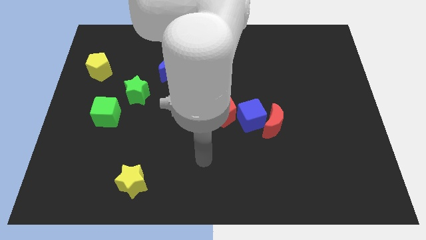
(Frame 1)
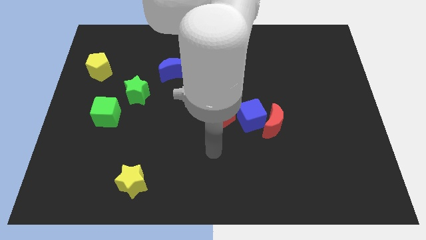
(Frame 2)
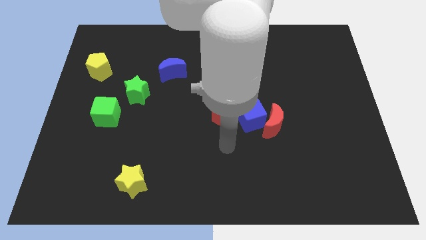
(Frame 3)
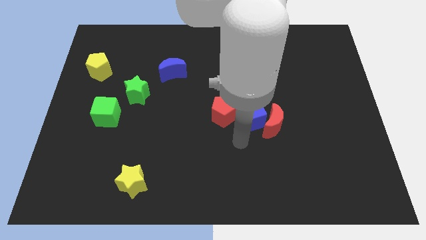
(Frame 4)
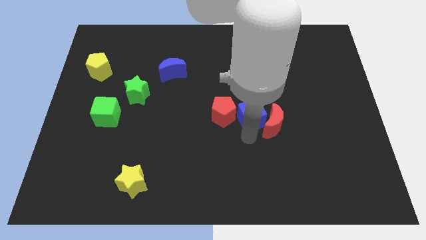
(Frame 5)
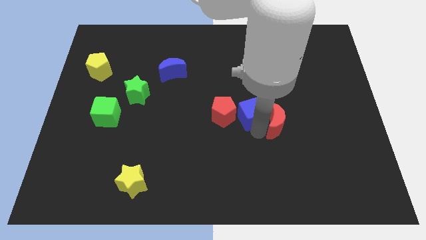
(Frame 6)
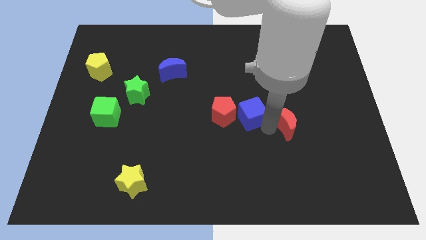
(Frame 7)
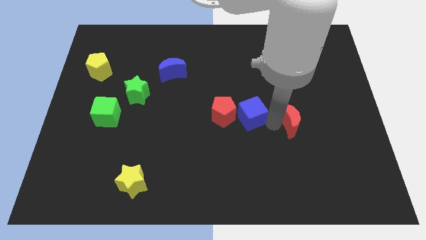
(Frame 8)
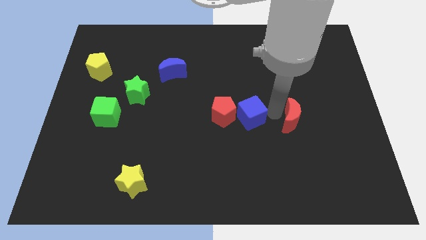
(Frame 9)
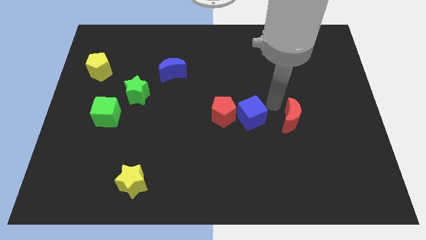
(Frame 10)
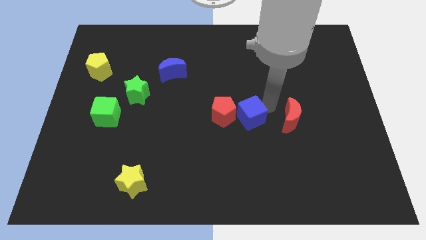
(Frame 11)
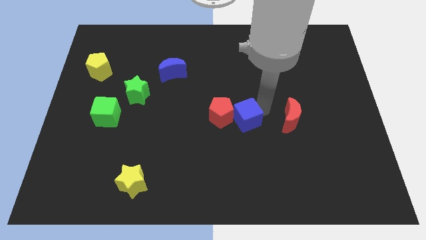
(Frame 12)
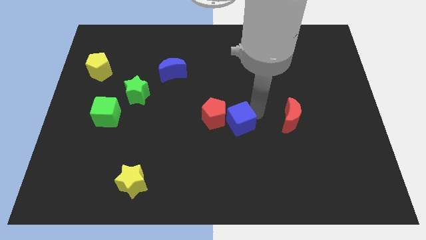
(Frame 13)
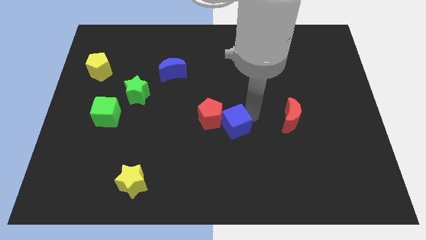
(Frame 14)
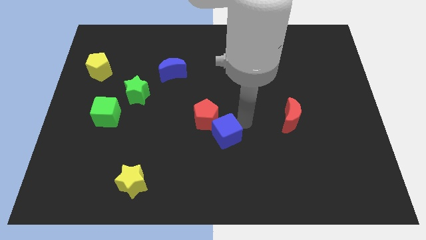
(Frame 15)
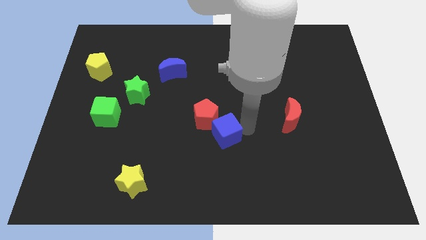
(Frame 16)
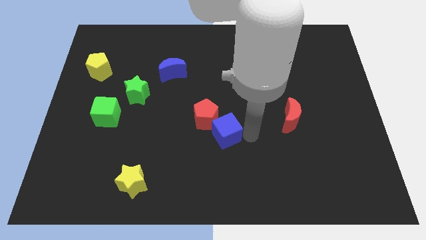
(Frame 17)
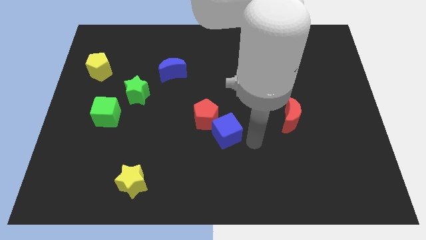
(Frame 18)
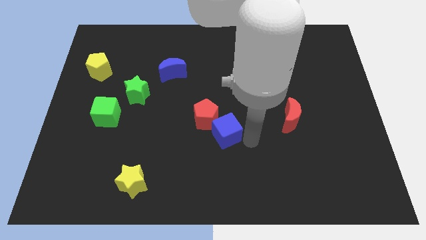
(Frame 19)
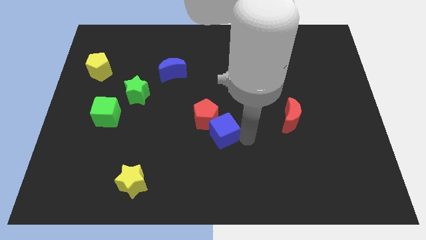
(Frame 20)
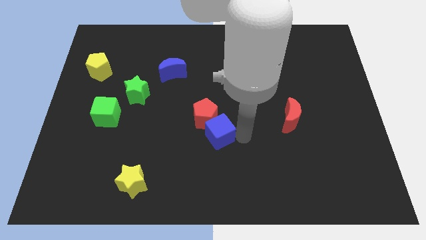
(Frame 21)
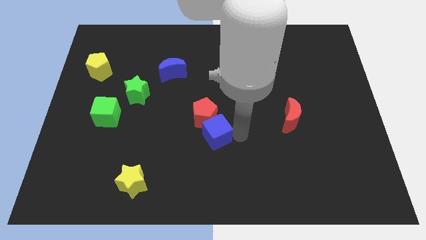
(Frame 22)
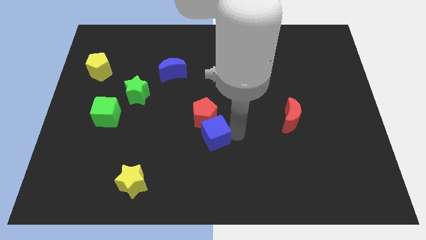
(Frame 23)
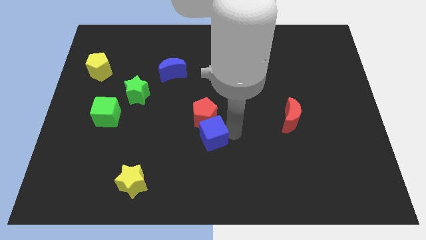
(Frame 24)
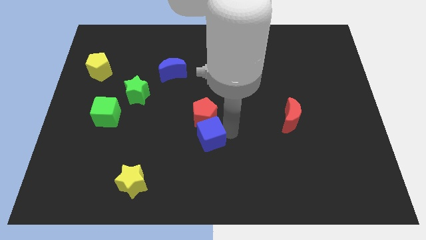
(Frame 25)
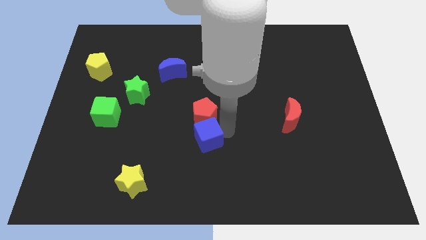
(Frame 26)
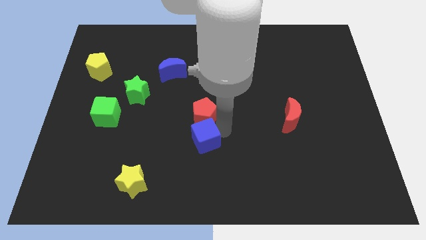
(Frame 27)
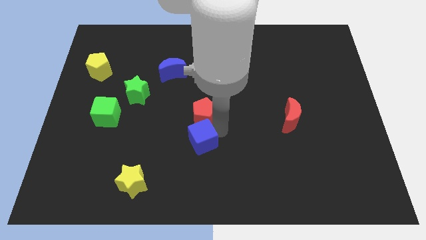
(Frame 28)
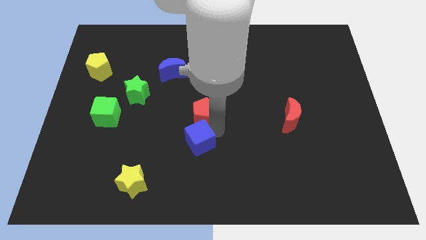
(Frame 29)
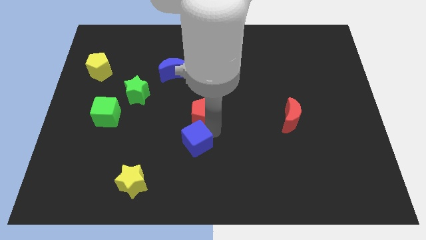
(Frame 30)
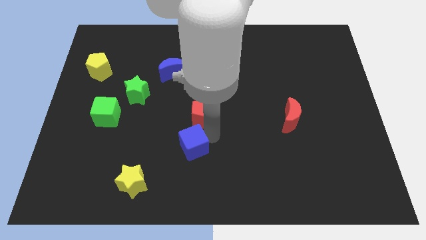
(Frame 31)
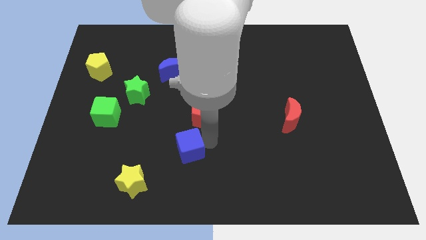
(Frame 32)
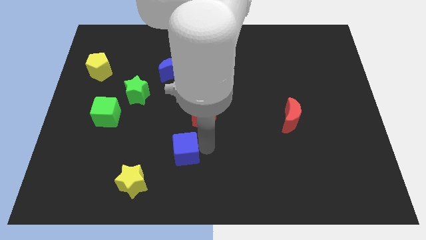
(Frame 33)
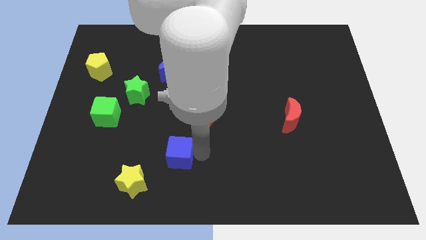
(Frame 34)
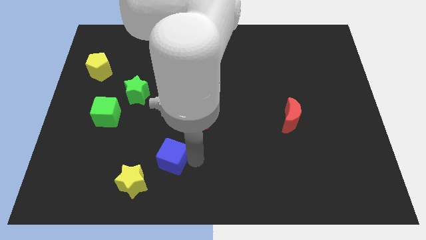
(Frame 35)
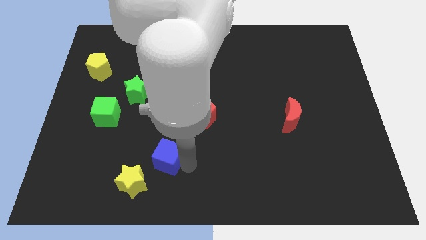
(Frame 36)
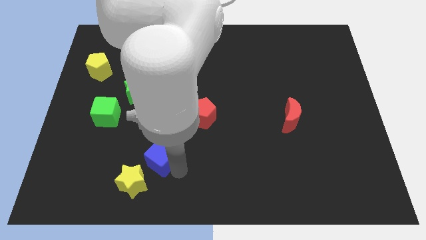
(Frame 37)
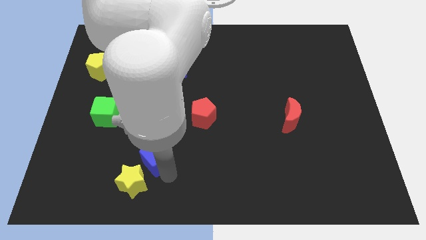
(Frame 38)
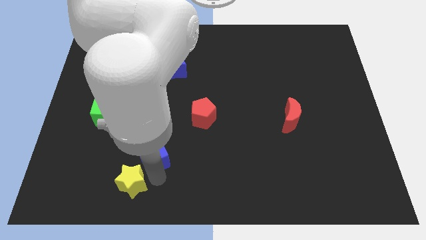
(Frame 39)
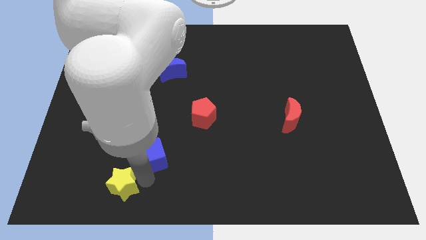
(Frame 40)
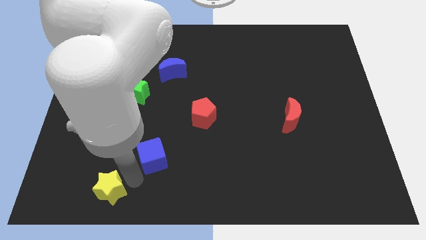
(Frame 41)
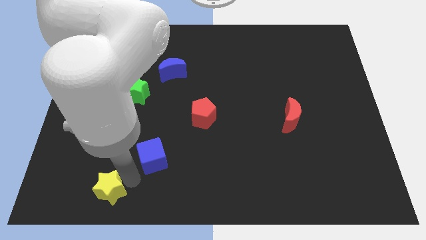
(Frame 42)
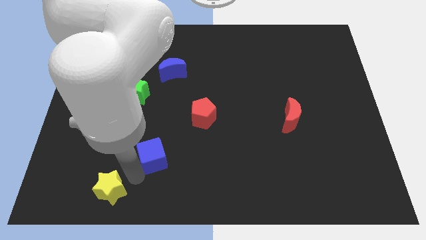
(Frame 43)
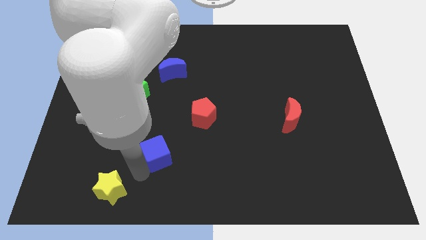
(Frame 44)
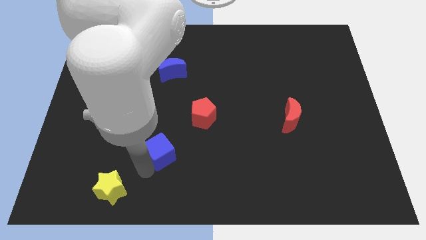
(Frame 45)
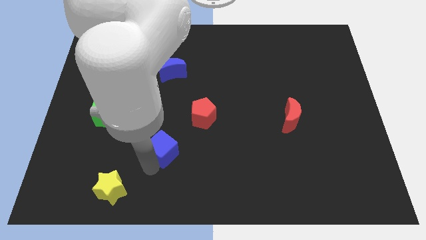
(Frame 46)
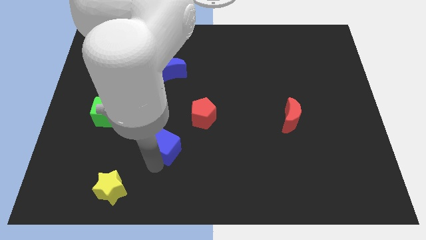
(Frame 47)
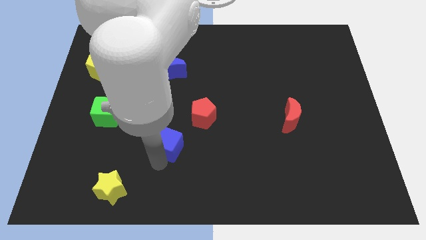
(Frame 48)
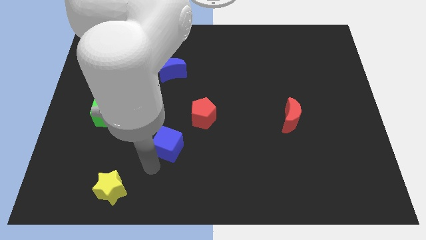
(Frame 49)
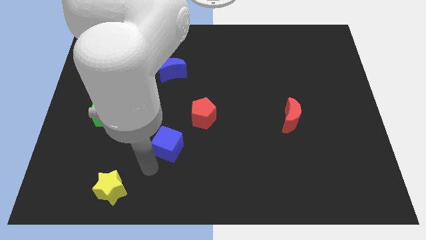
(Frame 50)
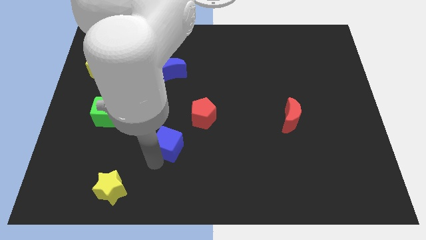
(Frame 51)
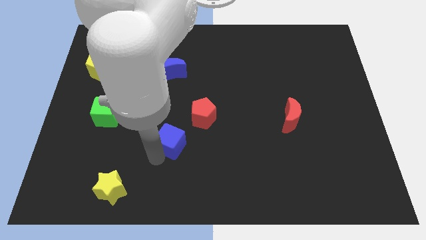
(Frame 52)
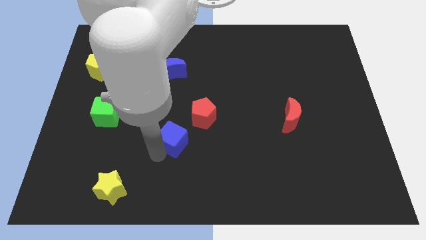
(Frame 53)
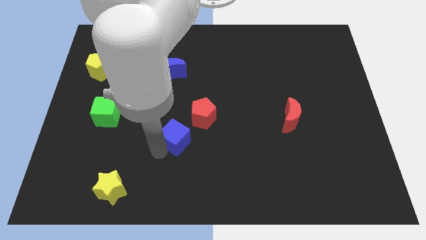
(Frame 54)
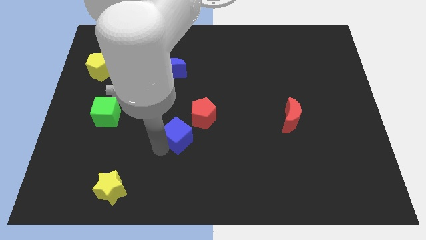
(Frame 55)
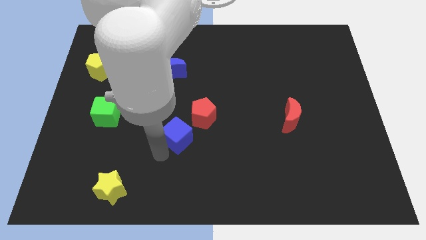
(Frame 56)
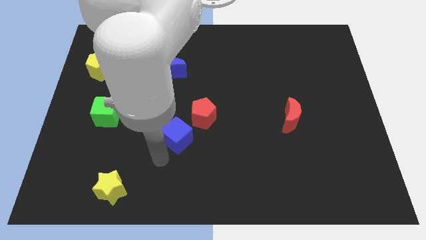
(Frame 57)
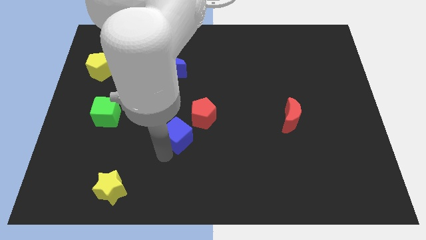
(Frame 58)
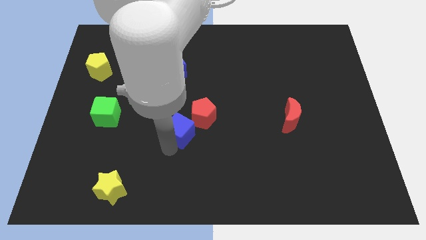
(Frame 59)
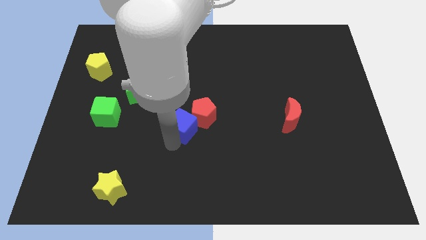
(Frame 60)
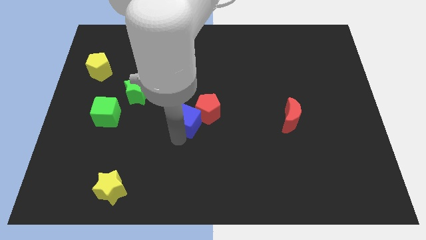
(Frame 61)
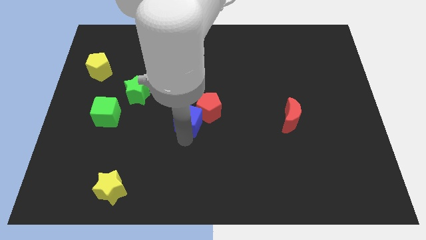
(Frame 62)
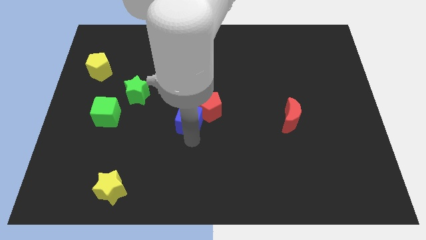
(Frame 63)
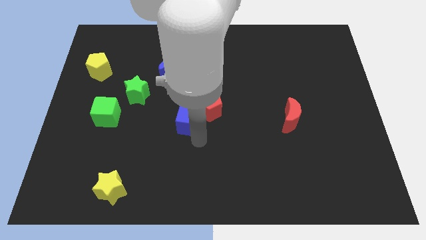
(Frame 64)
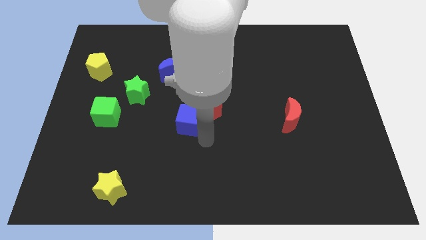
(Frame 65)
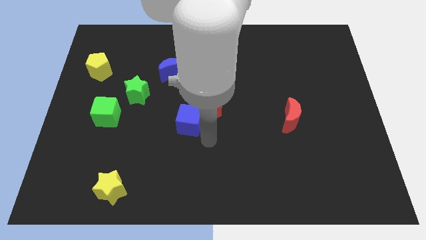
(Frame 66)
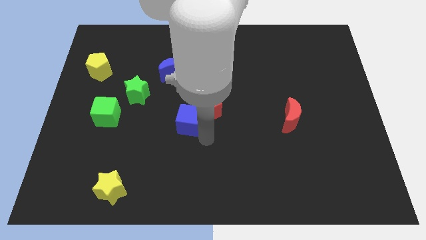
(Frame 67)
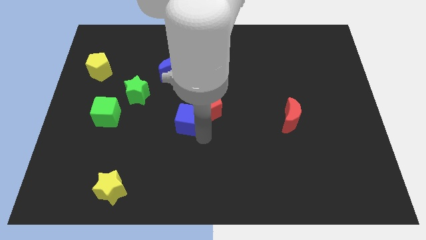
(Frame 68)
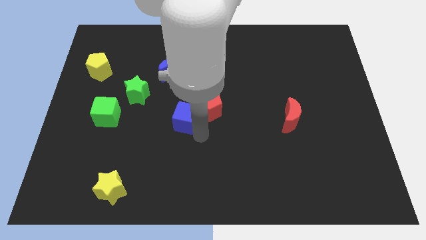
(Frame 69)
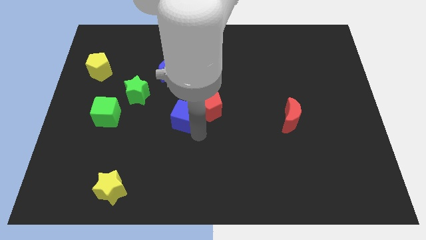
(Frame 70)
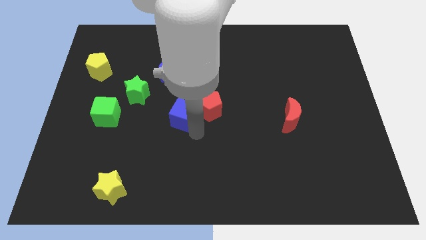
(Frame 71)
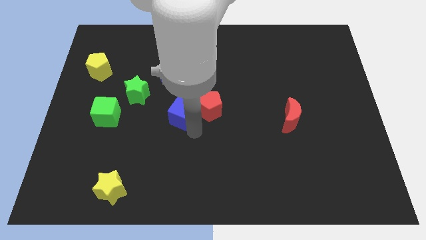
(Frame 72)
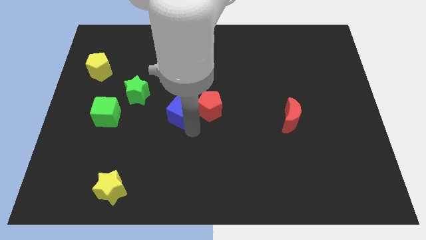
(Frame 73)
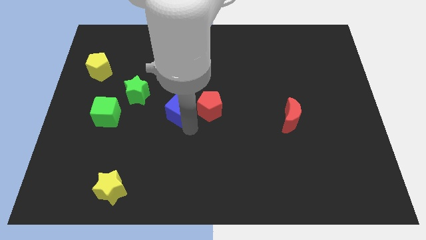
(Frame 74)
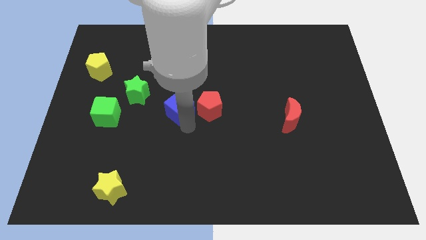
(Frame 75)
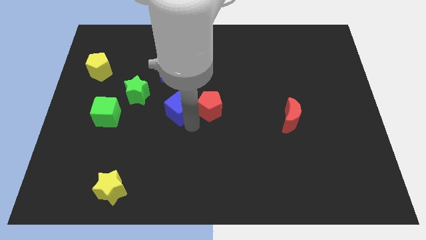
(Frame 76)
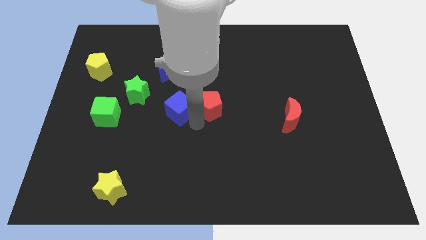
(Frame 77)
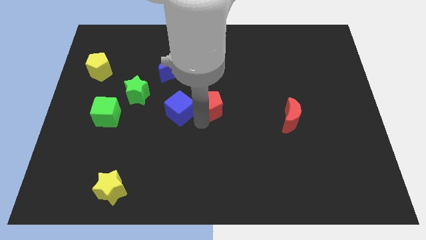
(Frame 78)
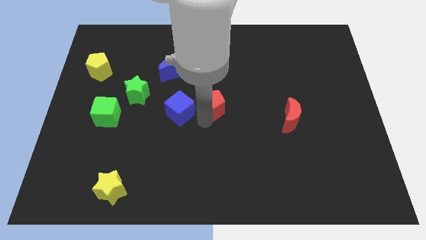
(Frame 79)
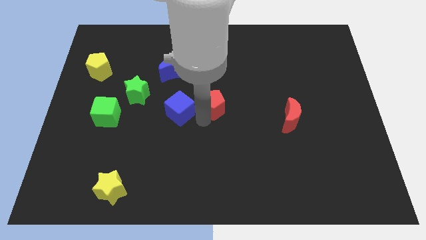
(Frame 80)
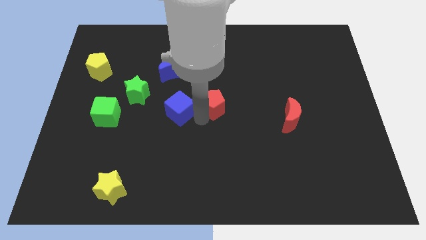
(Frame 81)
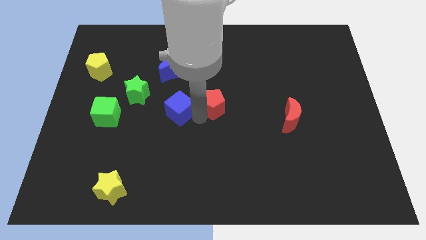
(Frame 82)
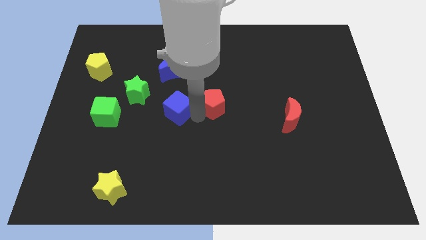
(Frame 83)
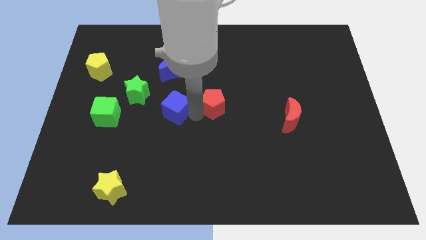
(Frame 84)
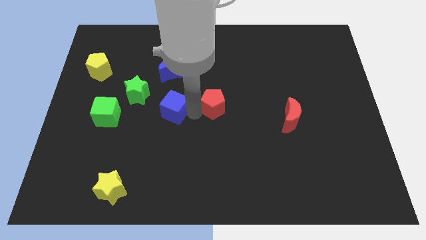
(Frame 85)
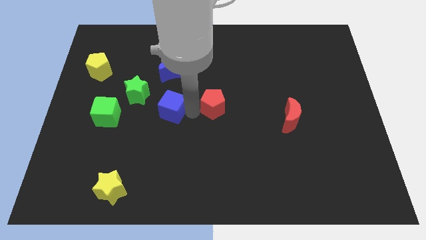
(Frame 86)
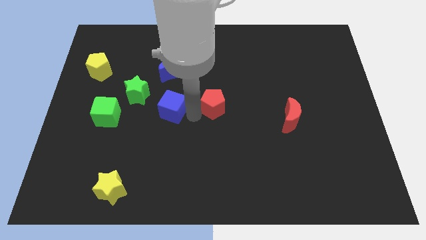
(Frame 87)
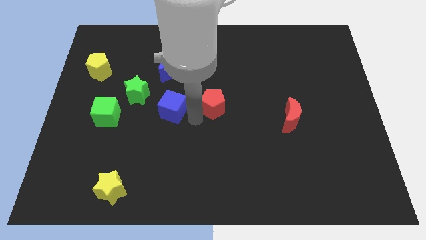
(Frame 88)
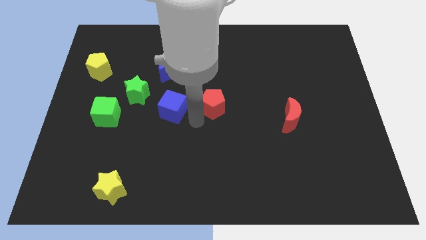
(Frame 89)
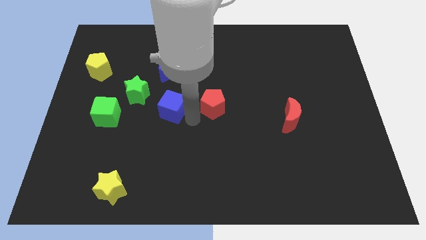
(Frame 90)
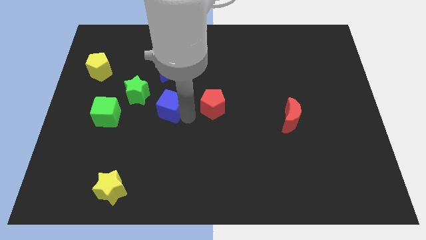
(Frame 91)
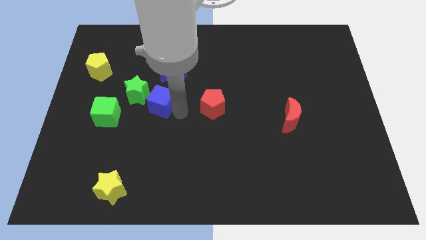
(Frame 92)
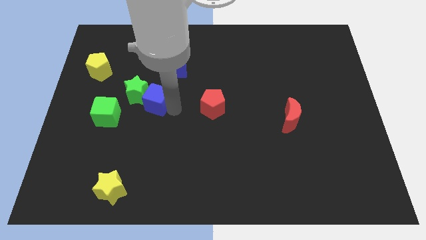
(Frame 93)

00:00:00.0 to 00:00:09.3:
move the blue cube next to the green star
